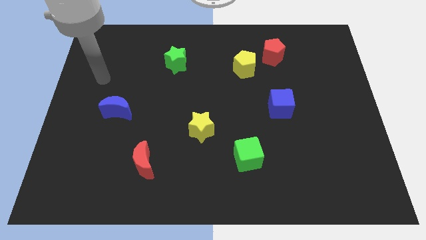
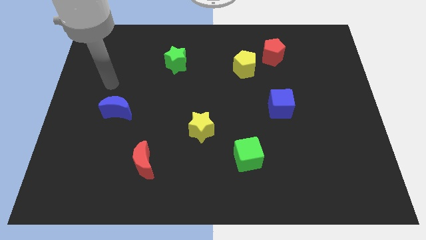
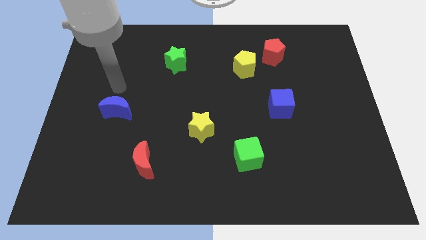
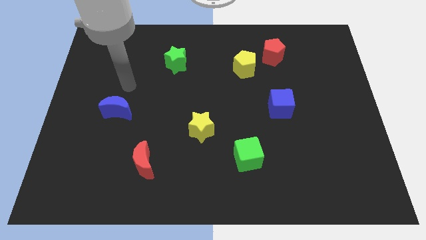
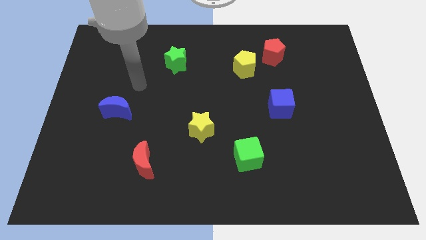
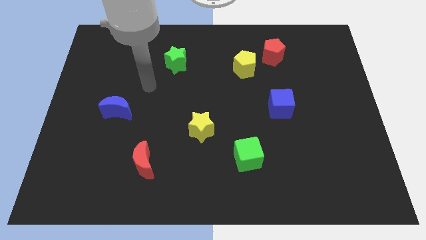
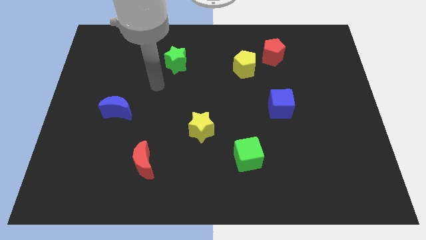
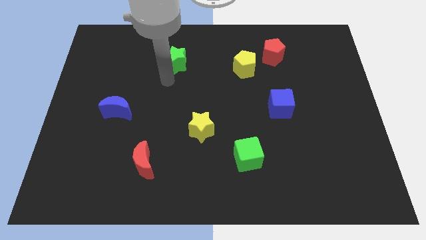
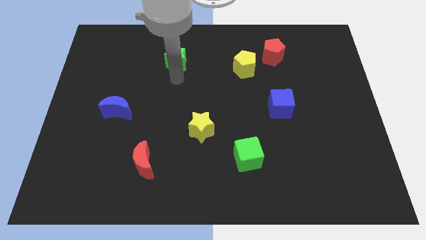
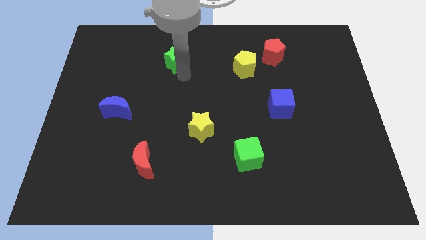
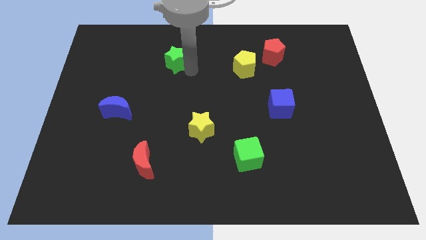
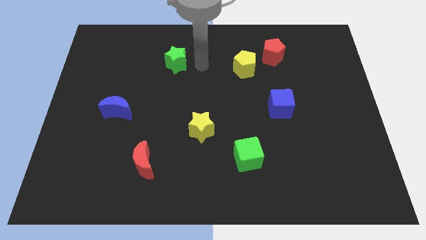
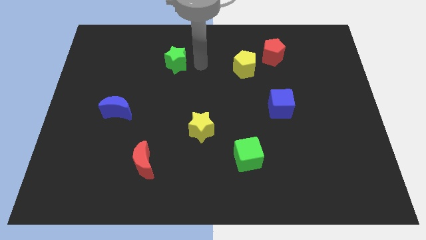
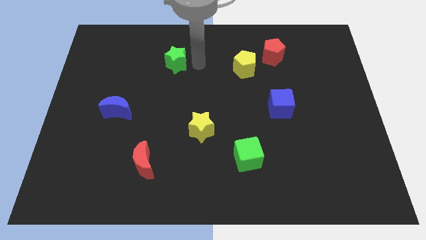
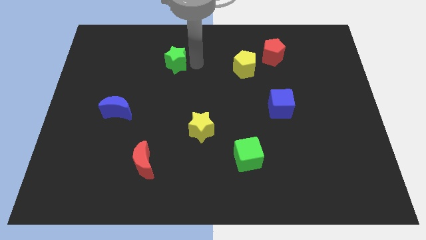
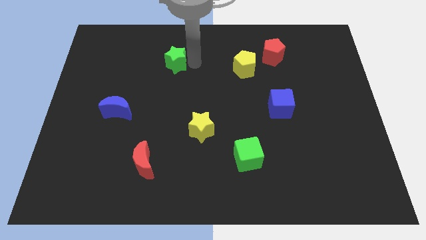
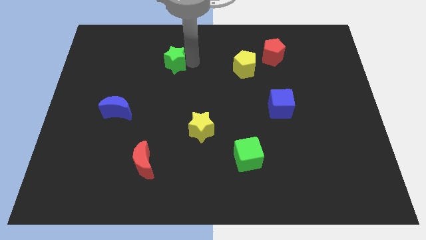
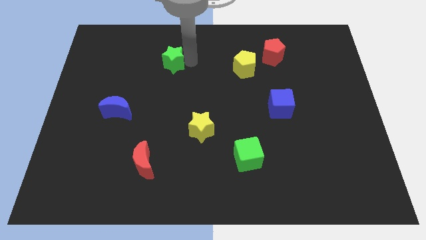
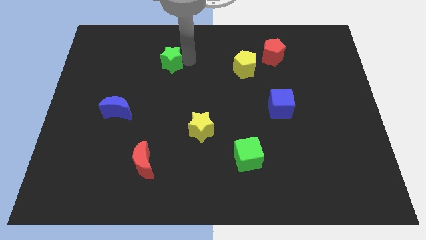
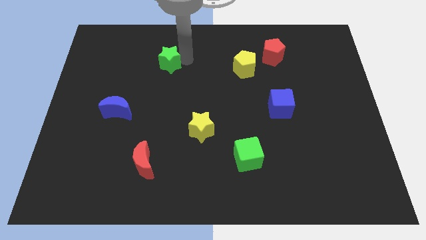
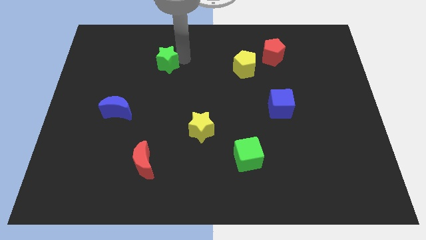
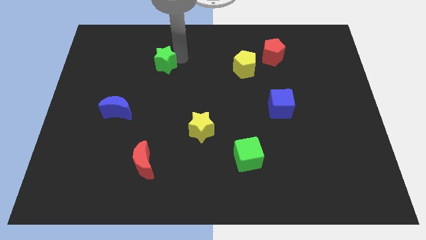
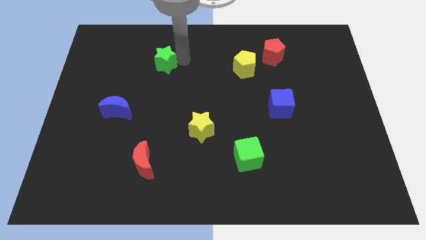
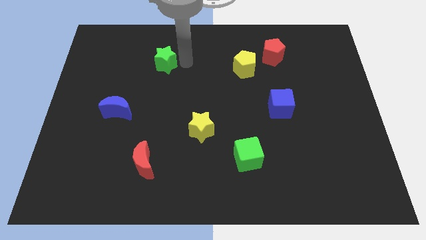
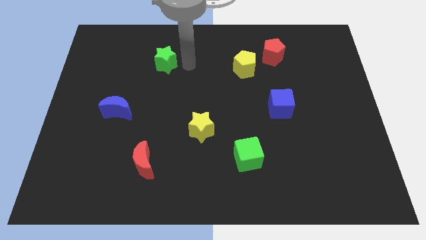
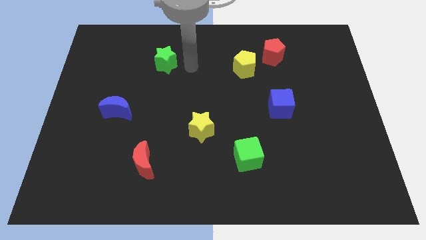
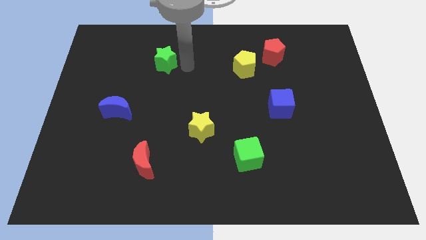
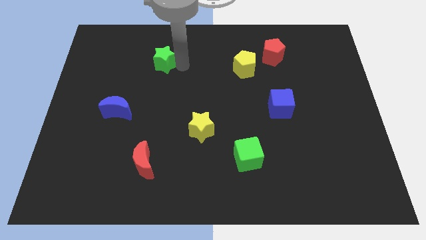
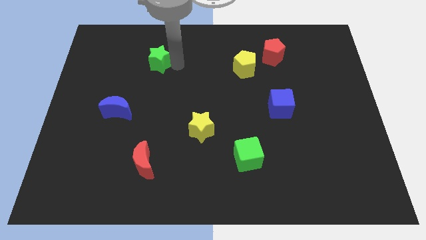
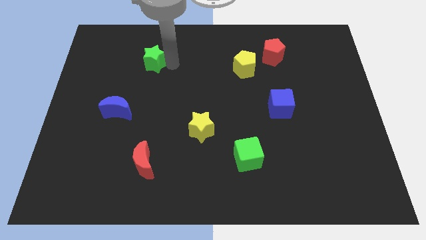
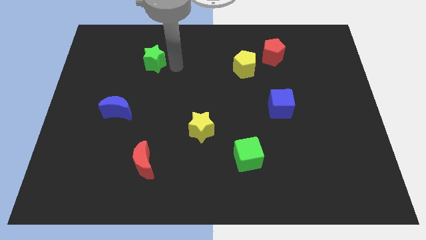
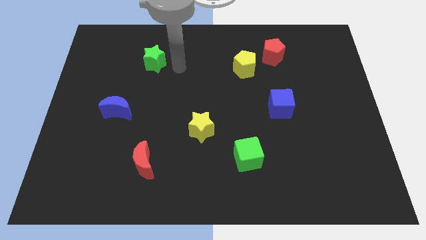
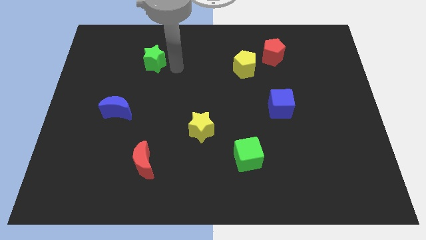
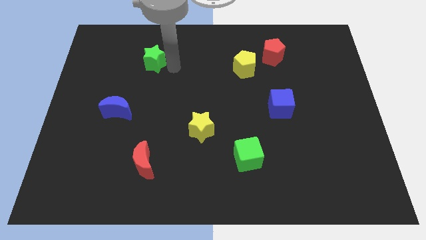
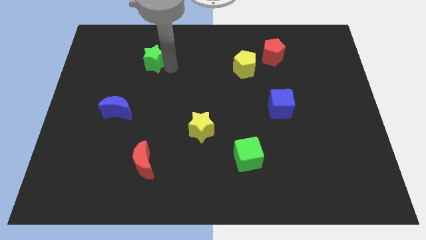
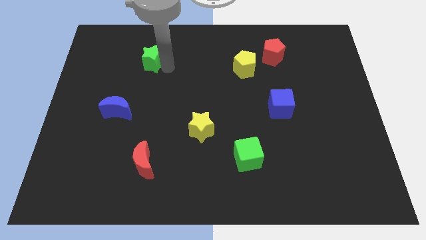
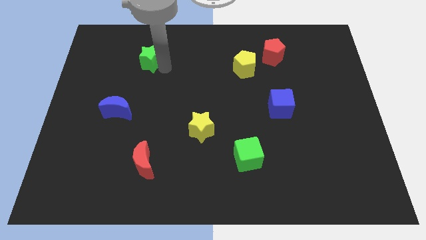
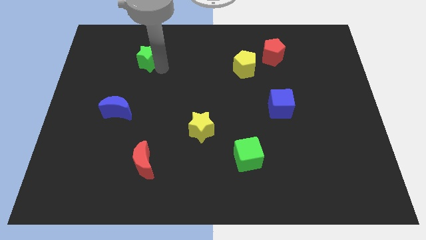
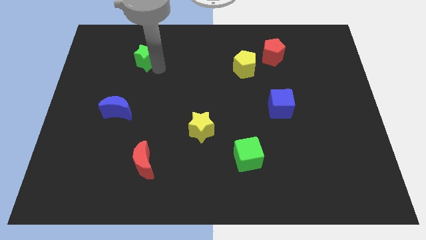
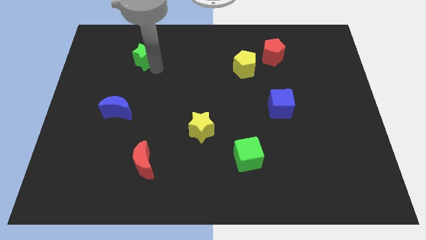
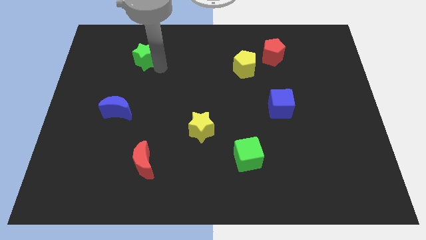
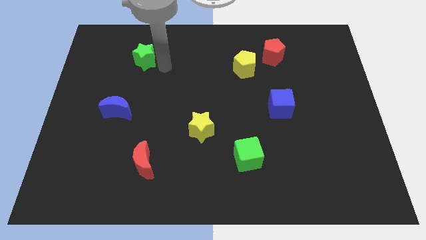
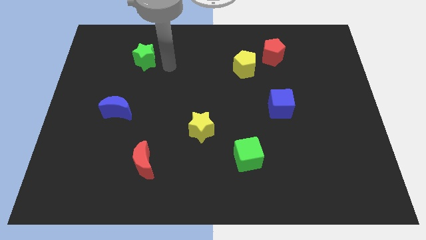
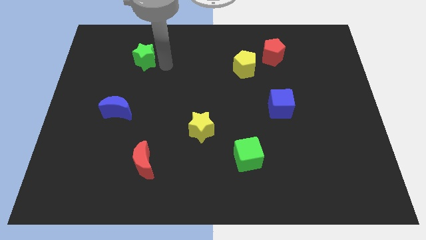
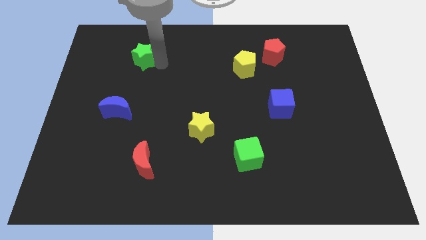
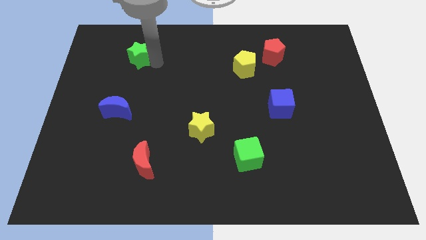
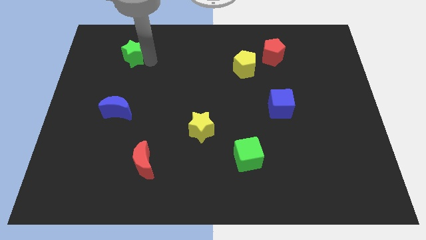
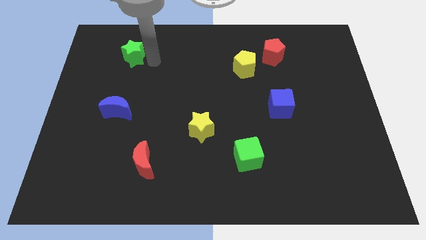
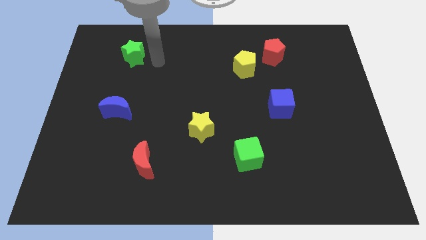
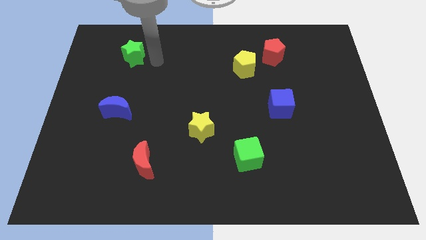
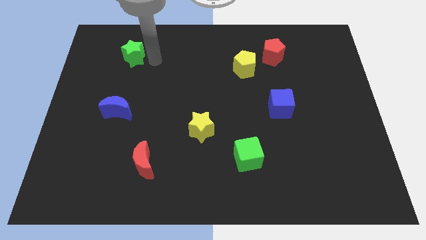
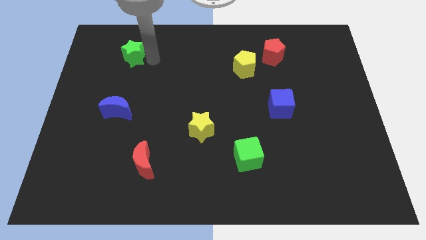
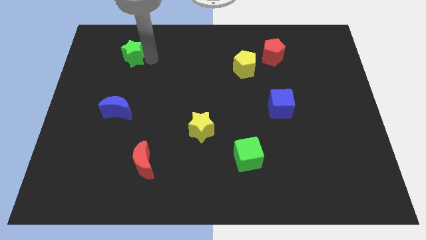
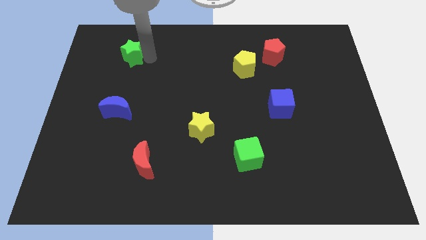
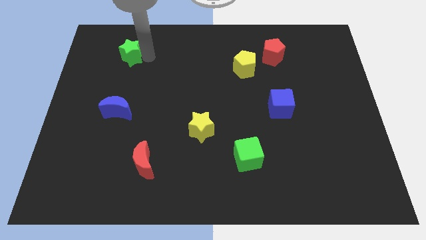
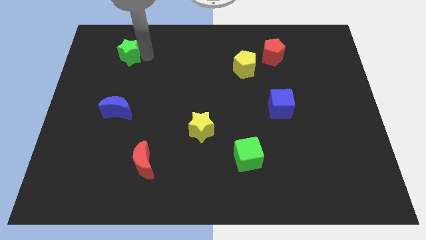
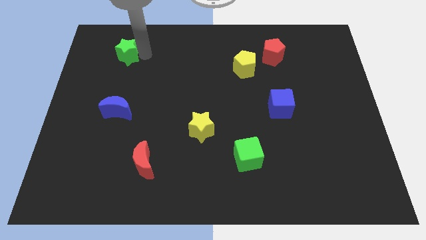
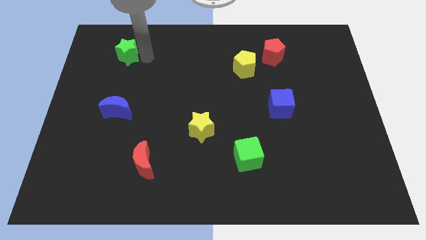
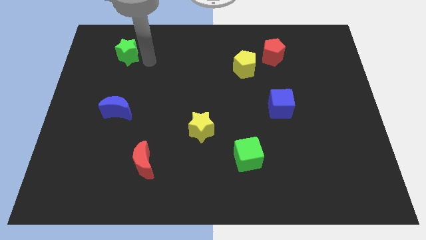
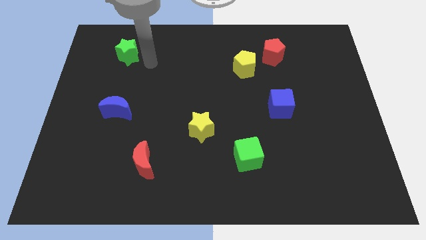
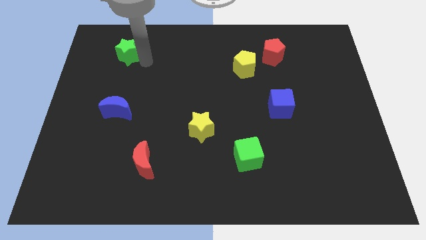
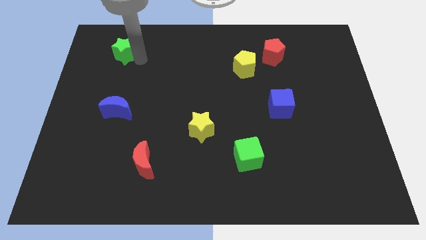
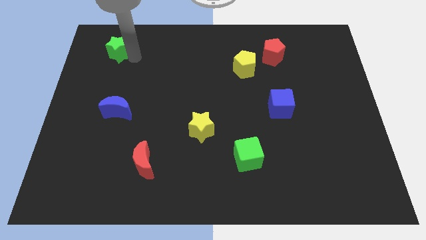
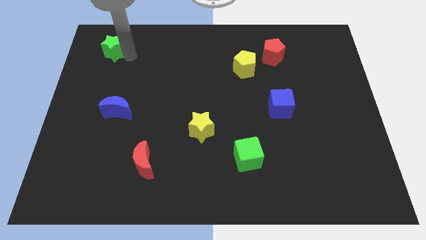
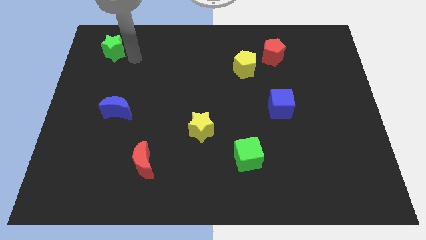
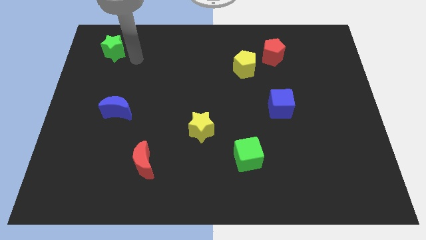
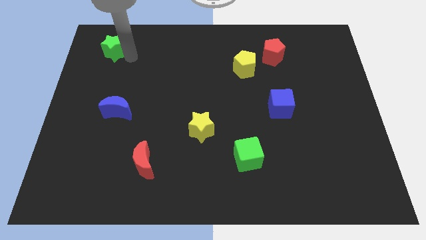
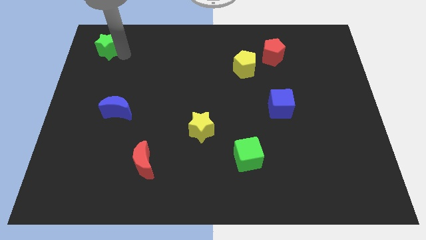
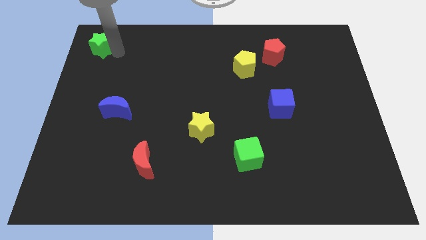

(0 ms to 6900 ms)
push the green star to the top left of the board

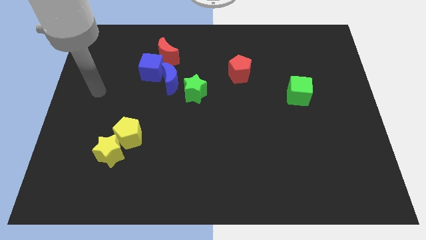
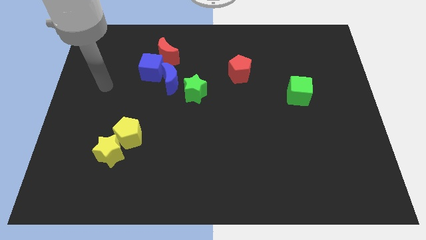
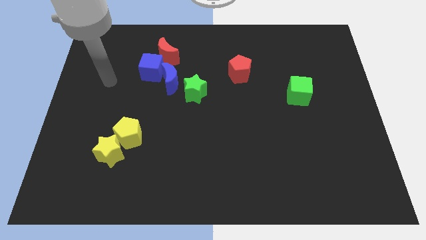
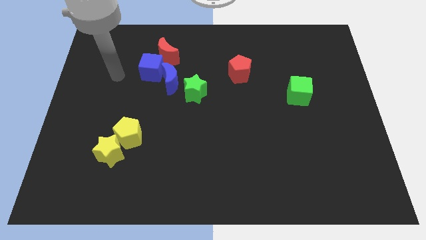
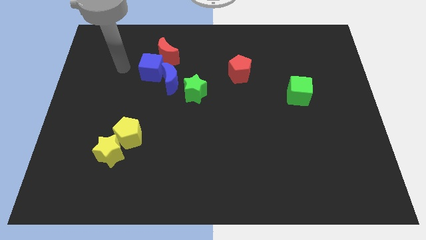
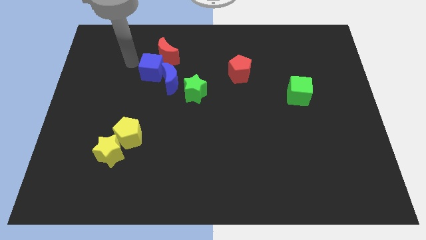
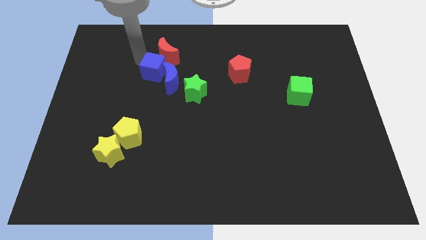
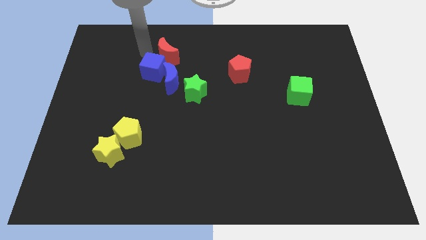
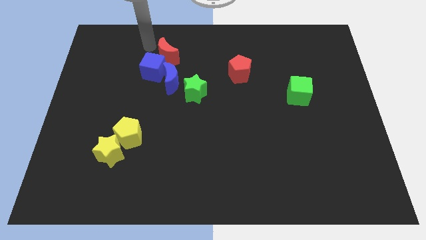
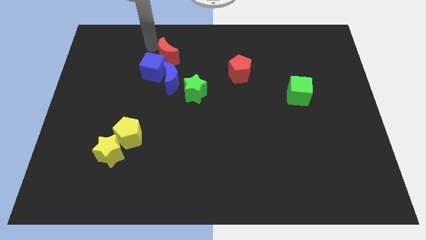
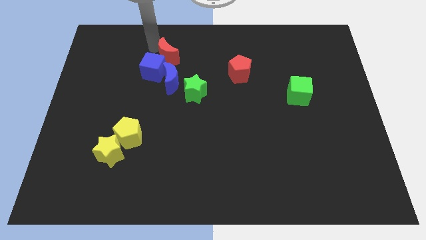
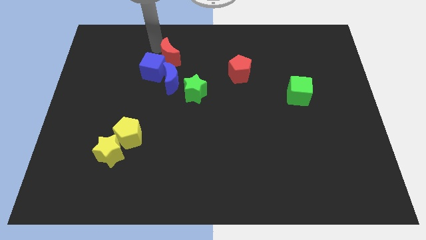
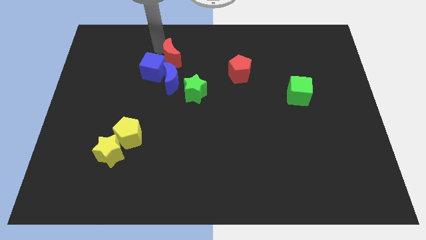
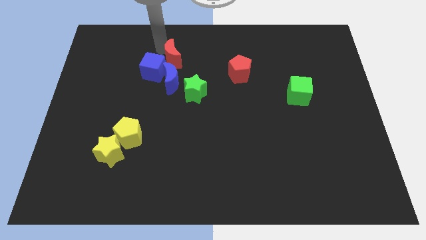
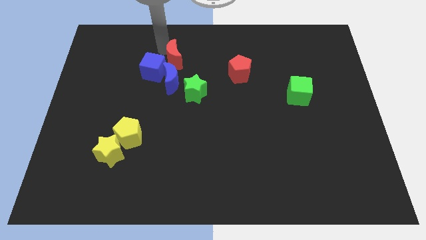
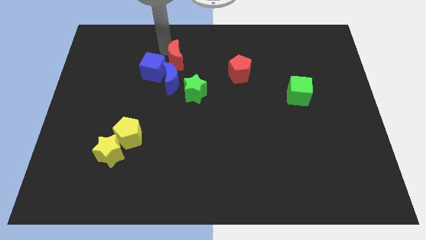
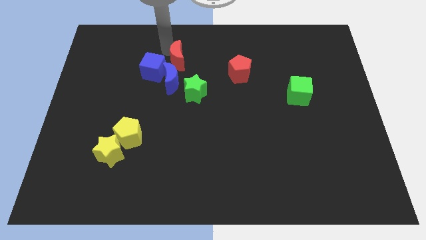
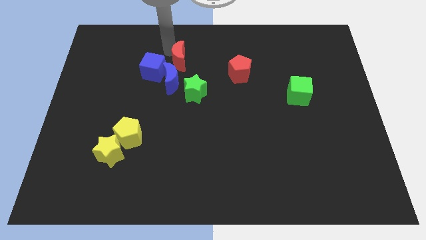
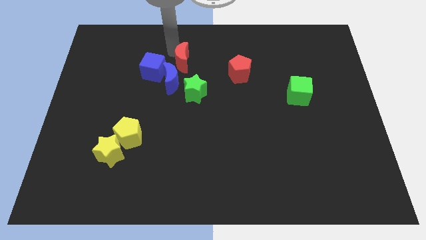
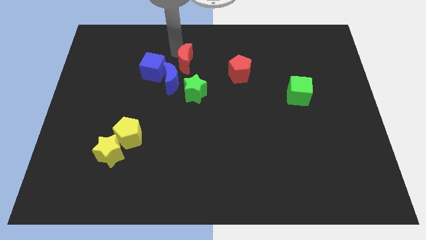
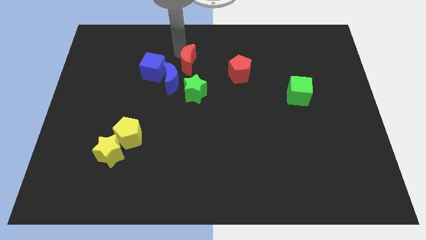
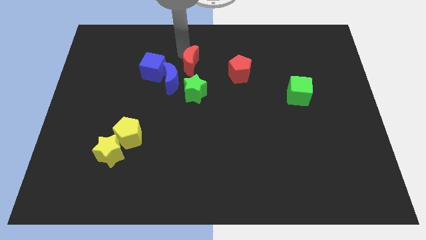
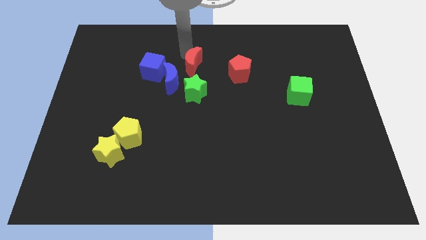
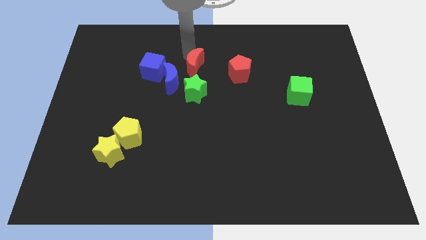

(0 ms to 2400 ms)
slide the red moon to the center
